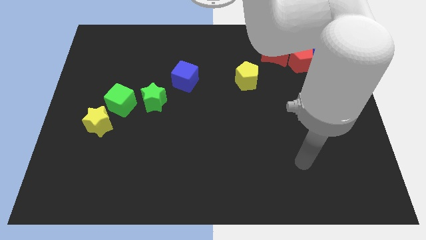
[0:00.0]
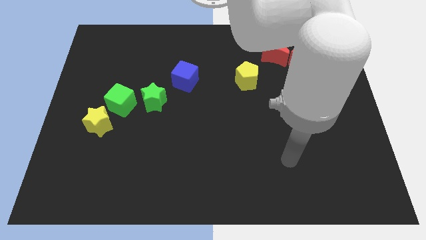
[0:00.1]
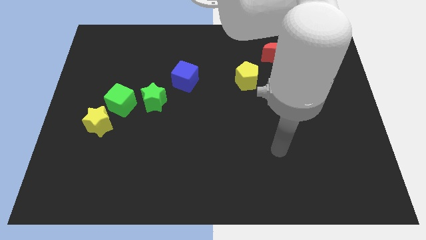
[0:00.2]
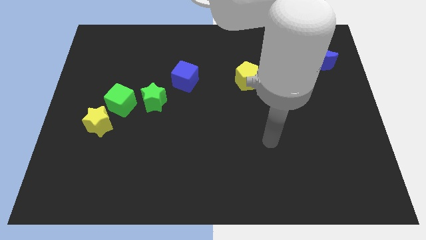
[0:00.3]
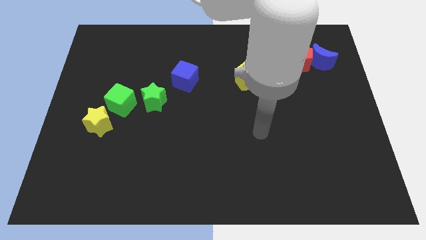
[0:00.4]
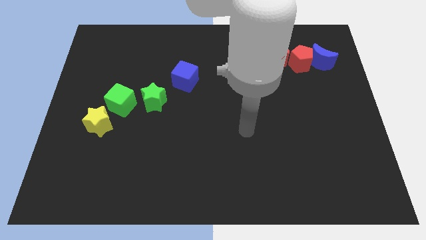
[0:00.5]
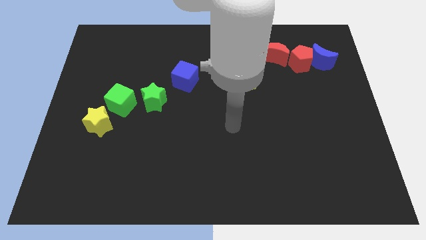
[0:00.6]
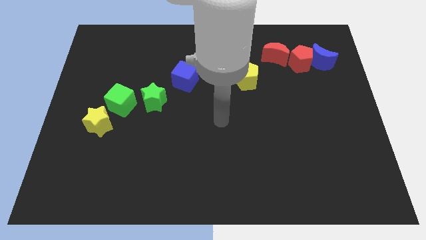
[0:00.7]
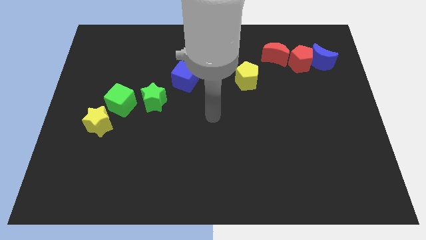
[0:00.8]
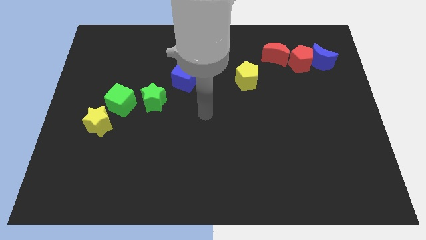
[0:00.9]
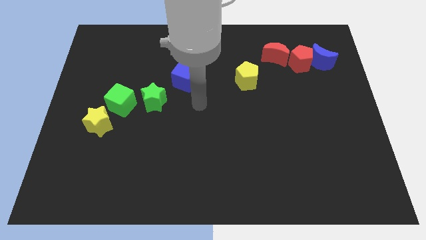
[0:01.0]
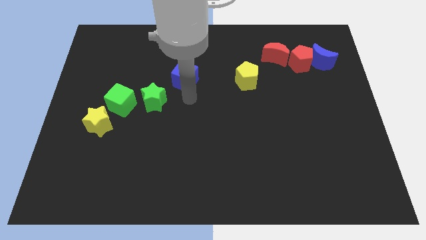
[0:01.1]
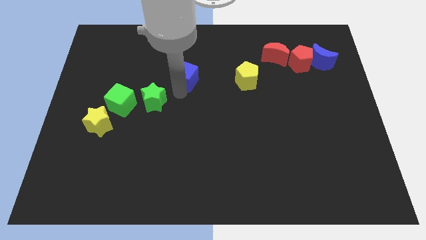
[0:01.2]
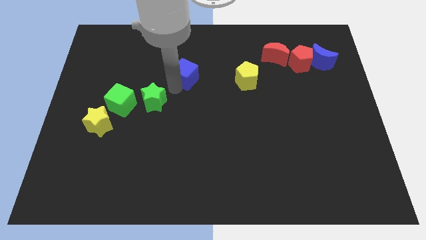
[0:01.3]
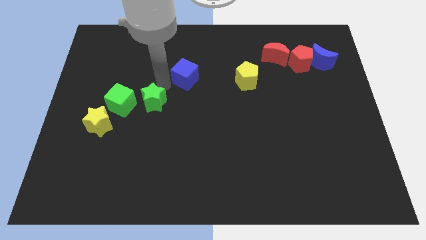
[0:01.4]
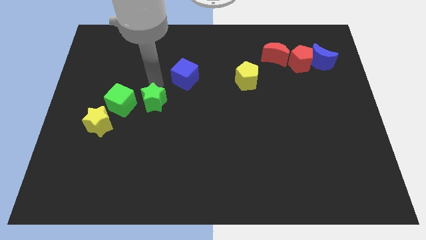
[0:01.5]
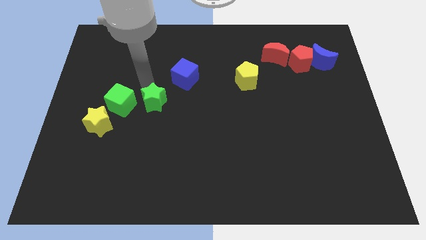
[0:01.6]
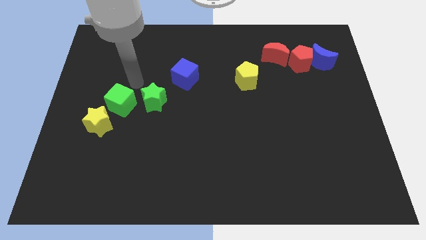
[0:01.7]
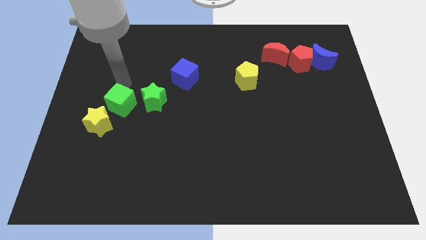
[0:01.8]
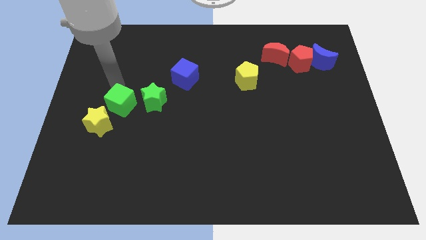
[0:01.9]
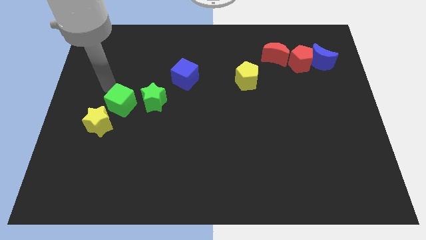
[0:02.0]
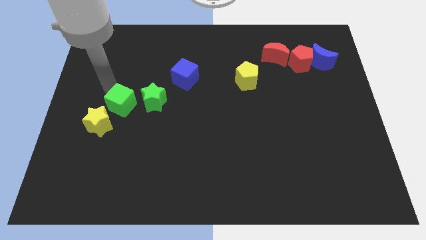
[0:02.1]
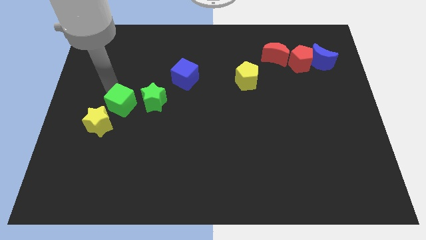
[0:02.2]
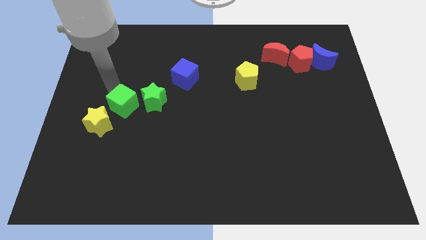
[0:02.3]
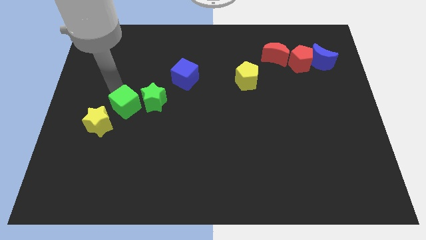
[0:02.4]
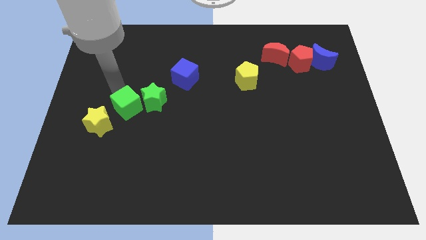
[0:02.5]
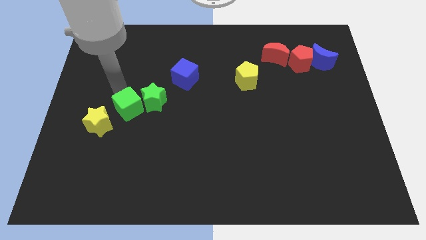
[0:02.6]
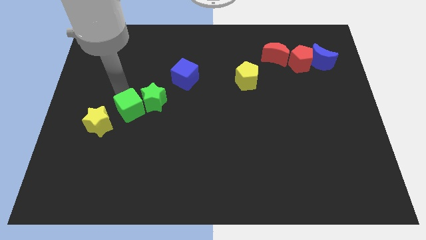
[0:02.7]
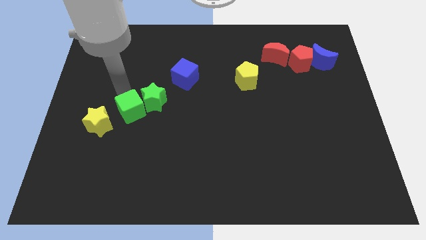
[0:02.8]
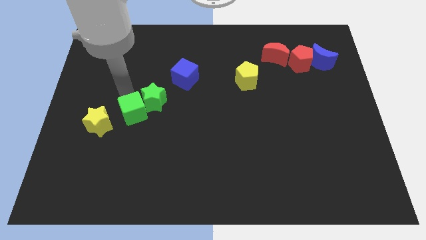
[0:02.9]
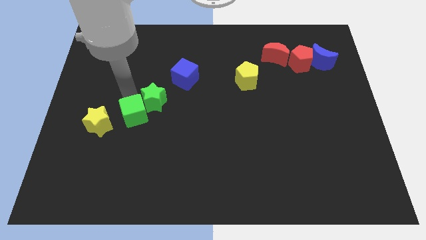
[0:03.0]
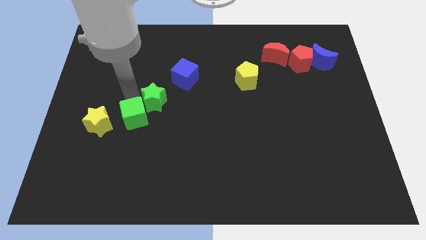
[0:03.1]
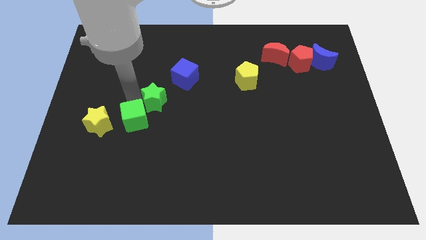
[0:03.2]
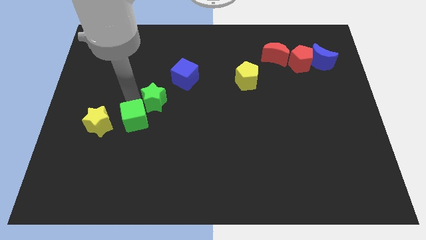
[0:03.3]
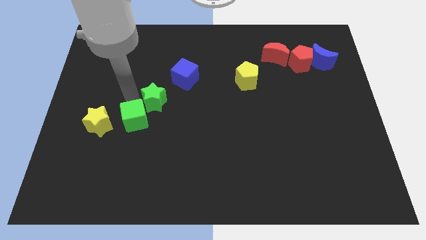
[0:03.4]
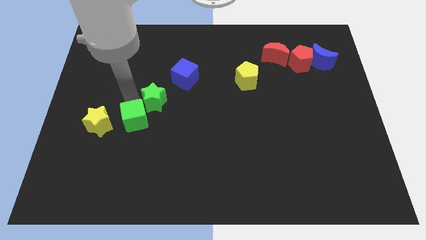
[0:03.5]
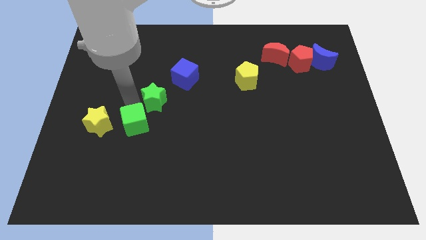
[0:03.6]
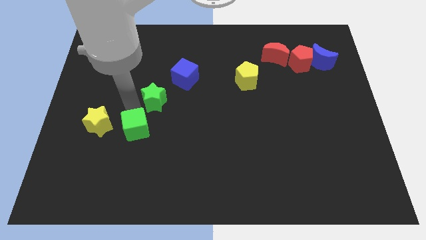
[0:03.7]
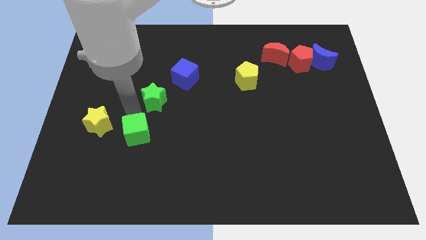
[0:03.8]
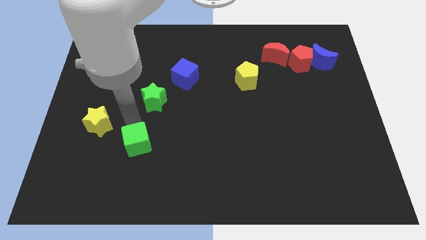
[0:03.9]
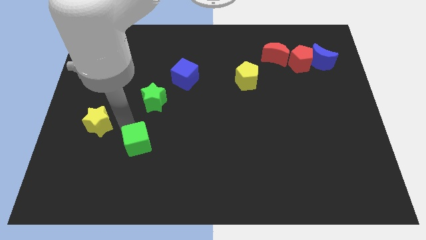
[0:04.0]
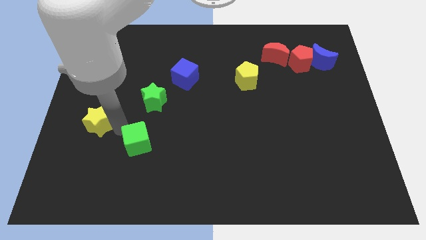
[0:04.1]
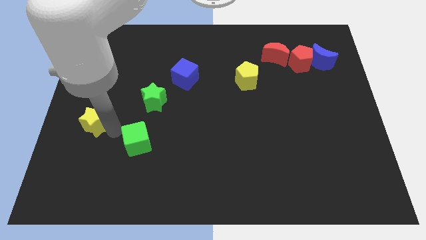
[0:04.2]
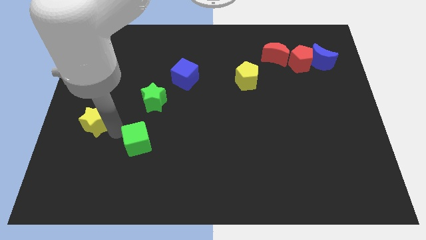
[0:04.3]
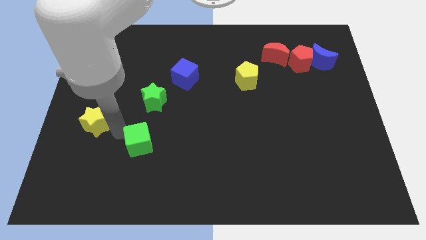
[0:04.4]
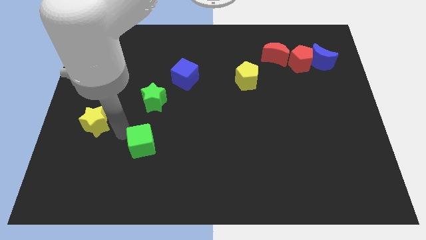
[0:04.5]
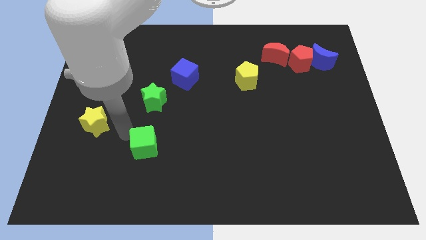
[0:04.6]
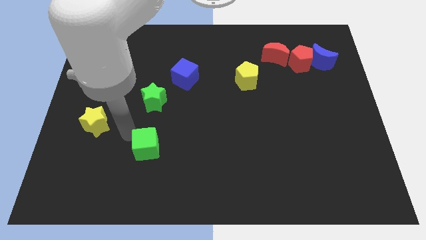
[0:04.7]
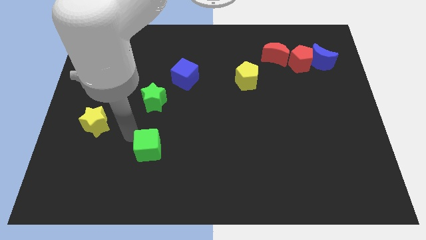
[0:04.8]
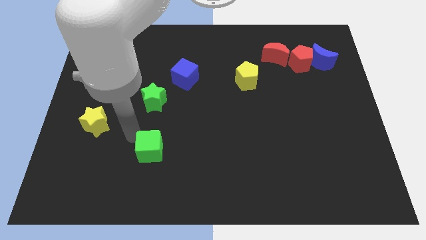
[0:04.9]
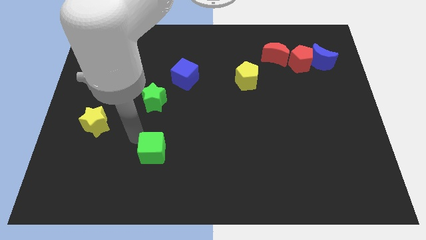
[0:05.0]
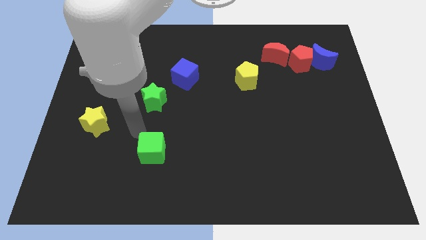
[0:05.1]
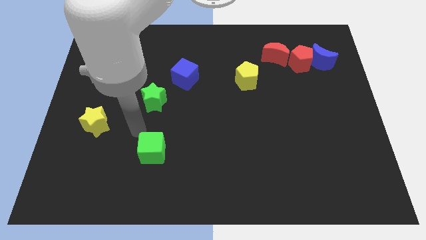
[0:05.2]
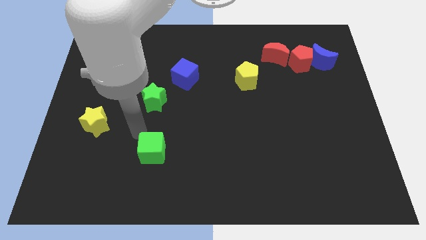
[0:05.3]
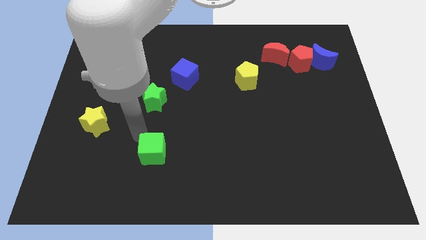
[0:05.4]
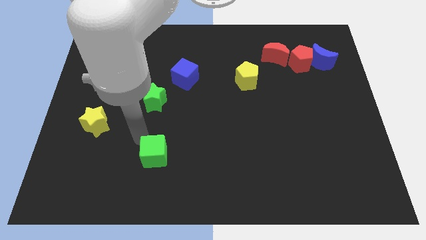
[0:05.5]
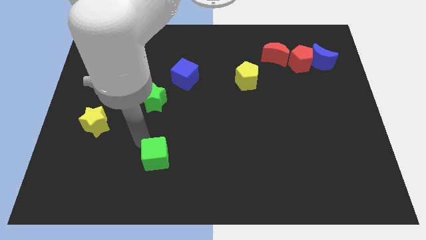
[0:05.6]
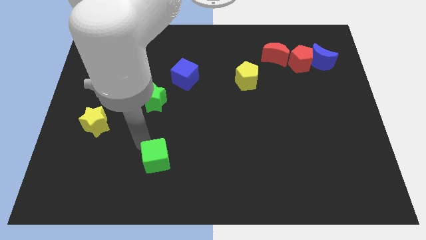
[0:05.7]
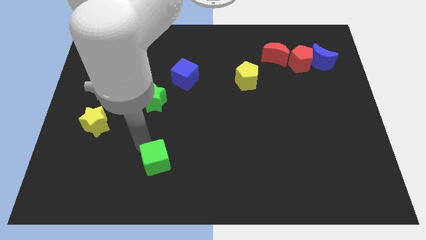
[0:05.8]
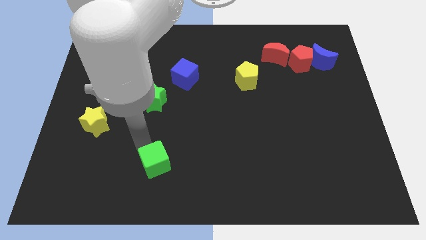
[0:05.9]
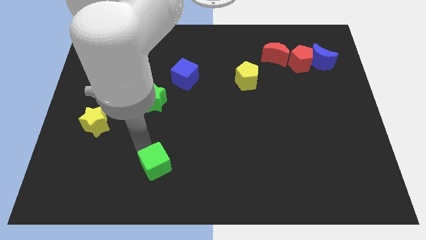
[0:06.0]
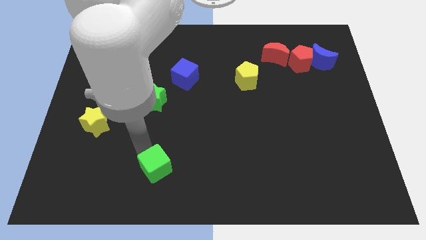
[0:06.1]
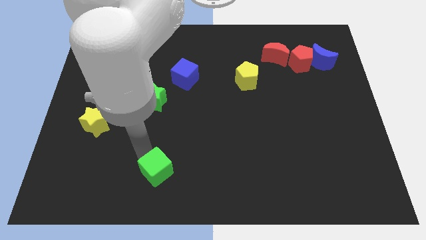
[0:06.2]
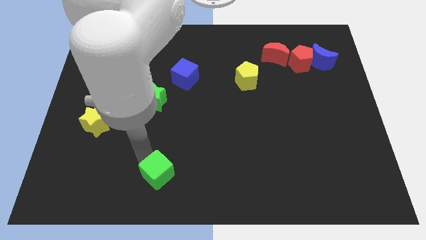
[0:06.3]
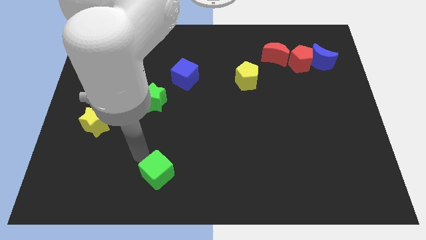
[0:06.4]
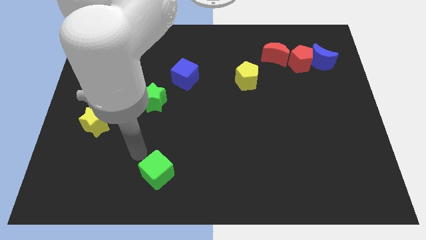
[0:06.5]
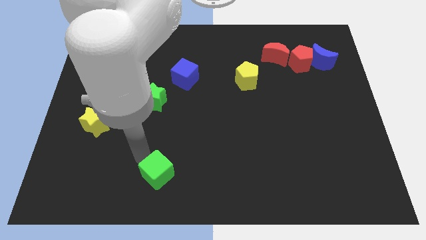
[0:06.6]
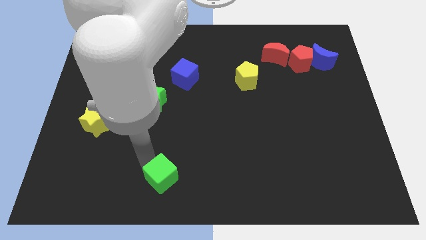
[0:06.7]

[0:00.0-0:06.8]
put the green cube to the bottom

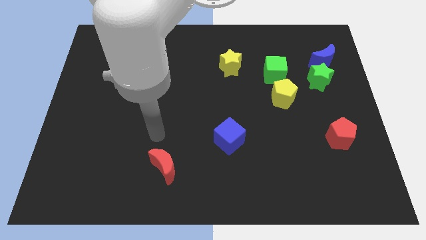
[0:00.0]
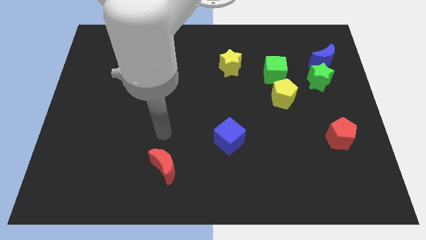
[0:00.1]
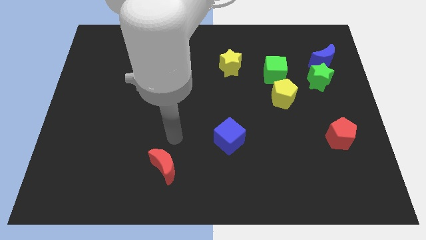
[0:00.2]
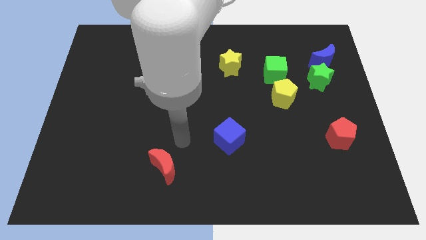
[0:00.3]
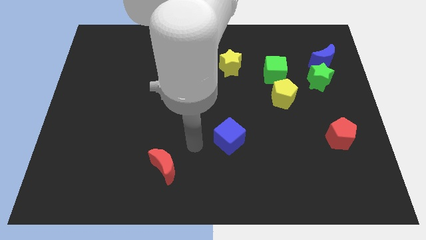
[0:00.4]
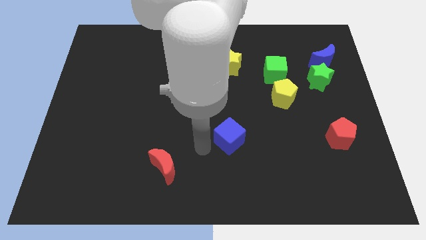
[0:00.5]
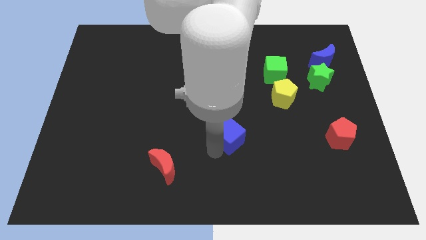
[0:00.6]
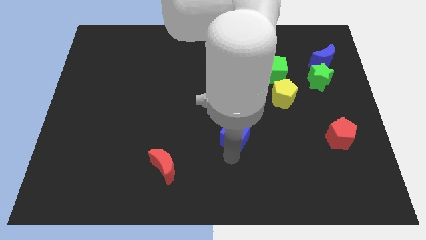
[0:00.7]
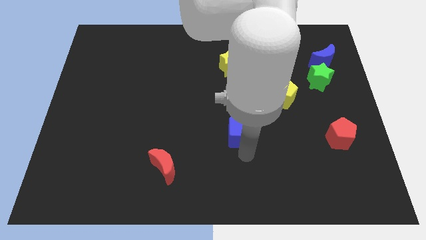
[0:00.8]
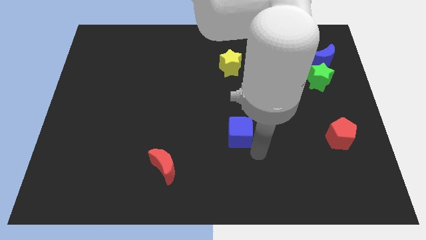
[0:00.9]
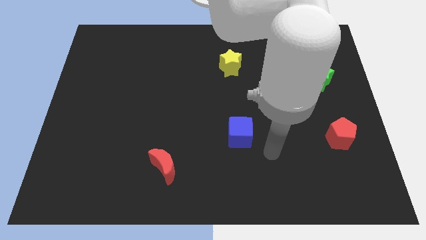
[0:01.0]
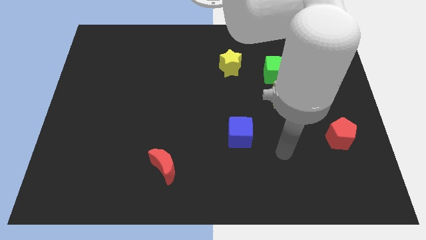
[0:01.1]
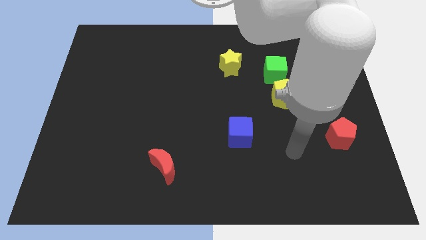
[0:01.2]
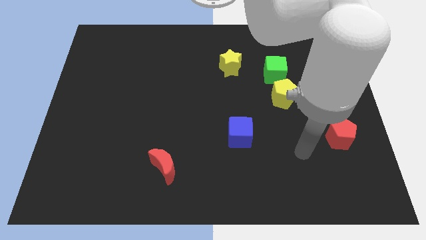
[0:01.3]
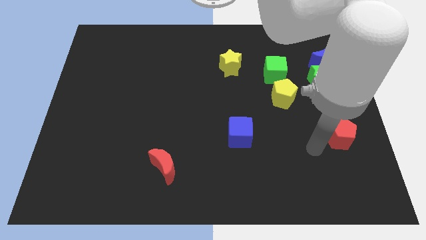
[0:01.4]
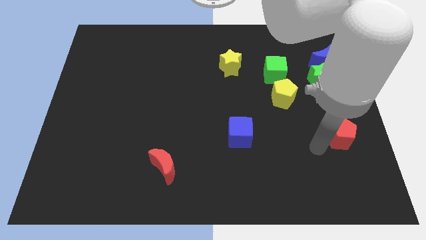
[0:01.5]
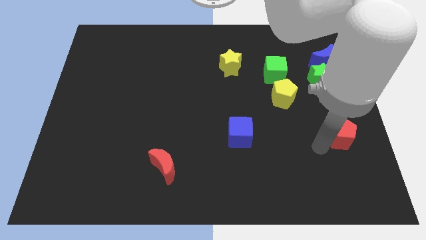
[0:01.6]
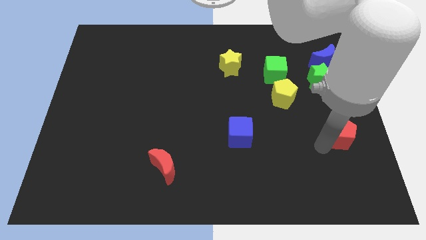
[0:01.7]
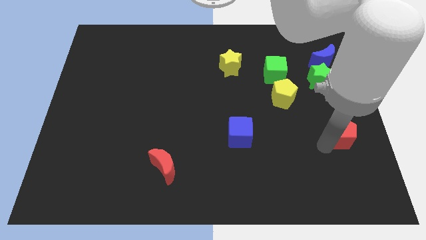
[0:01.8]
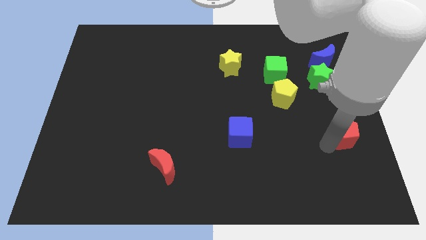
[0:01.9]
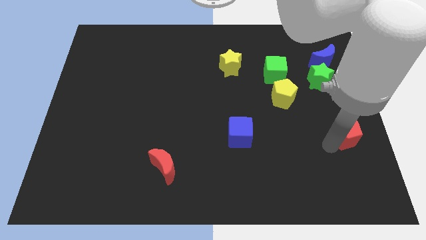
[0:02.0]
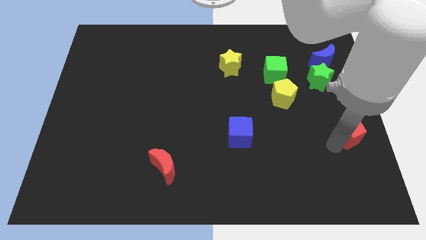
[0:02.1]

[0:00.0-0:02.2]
put the red pentagon to the right side of the board
